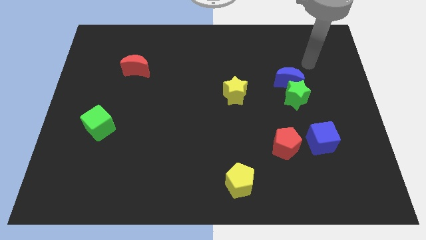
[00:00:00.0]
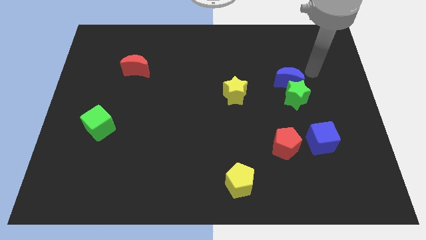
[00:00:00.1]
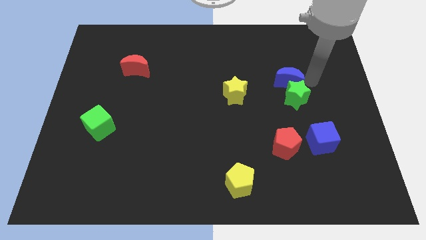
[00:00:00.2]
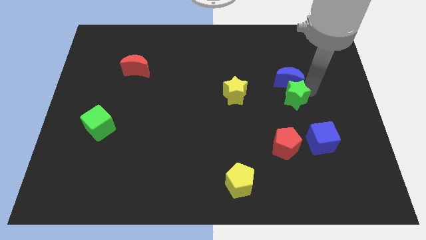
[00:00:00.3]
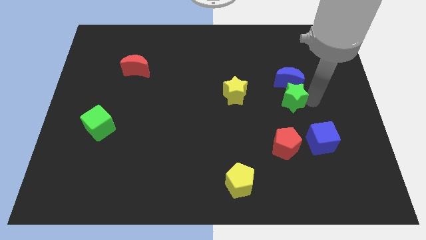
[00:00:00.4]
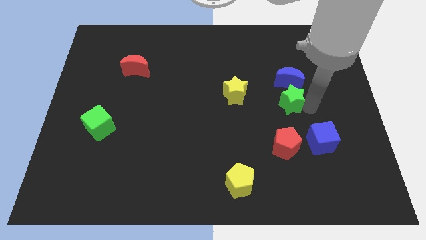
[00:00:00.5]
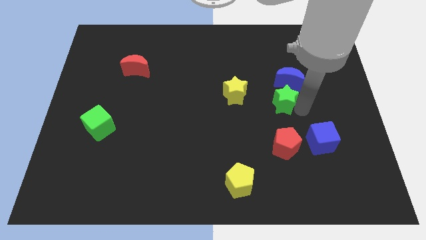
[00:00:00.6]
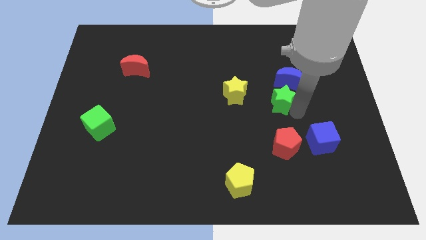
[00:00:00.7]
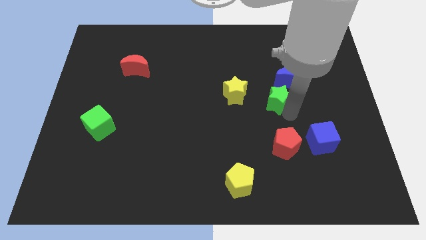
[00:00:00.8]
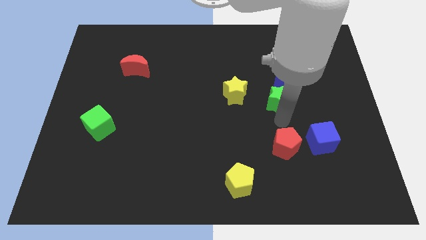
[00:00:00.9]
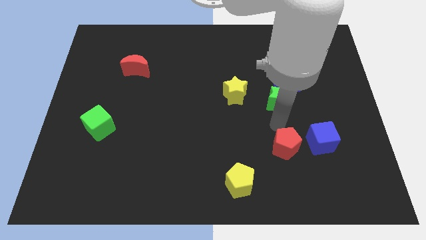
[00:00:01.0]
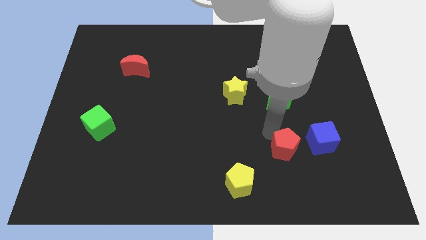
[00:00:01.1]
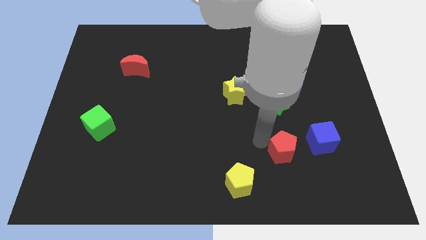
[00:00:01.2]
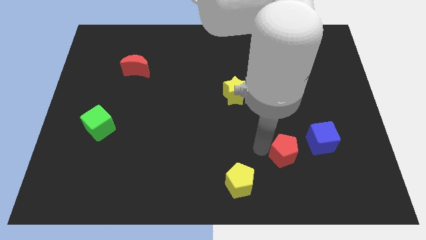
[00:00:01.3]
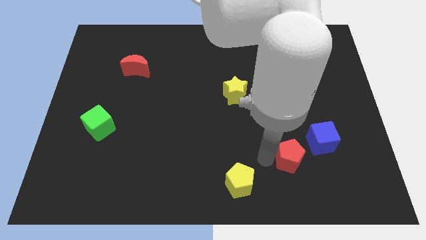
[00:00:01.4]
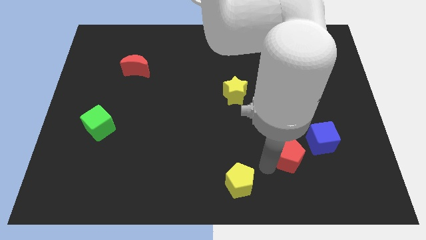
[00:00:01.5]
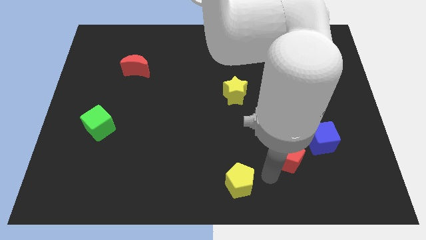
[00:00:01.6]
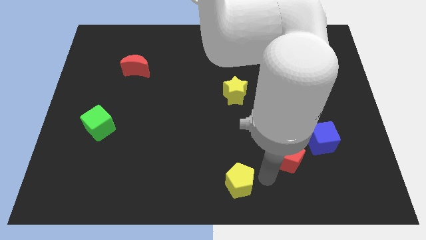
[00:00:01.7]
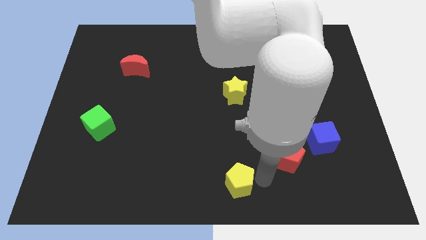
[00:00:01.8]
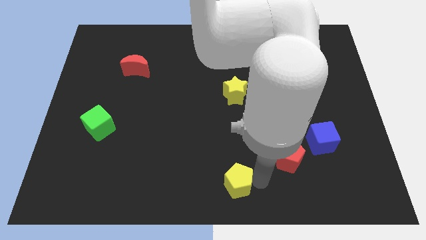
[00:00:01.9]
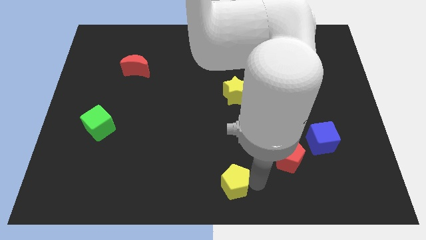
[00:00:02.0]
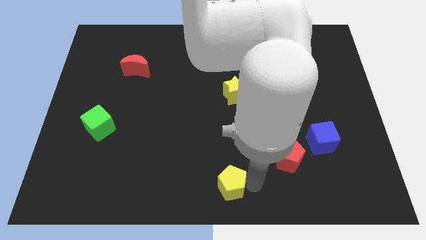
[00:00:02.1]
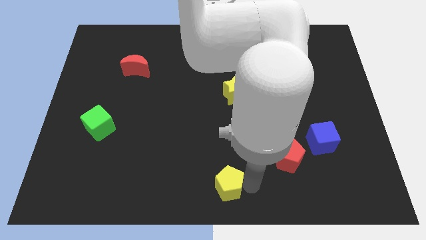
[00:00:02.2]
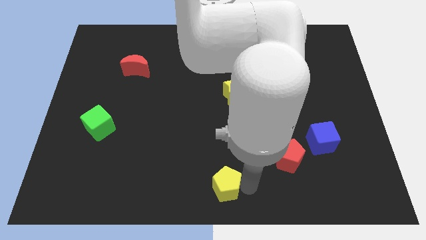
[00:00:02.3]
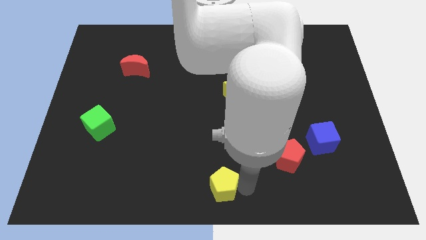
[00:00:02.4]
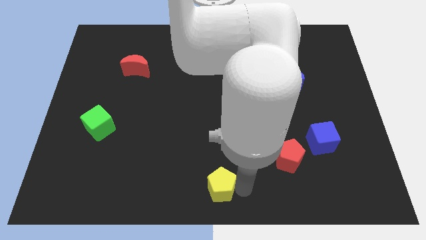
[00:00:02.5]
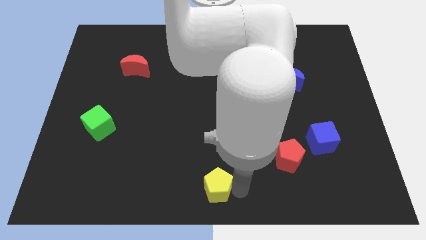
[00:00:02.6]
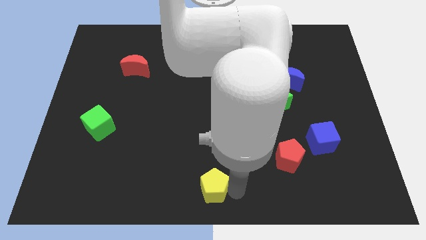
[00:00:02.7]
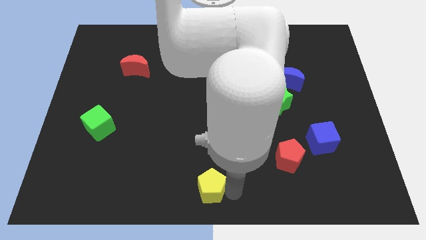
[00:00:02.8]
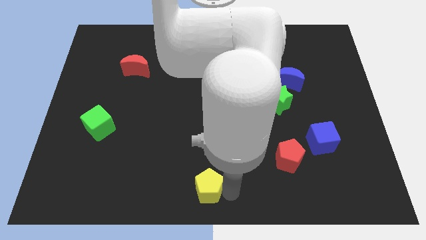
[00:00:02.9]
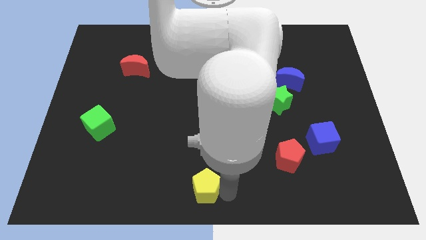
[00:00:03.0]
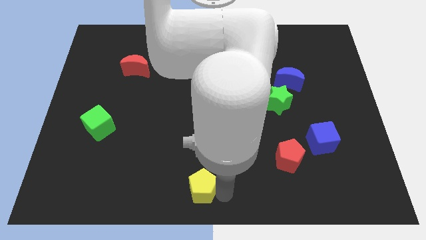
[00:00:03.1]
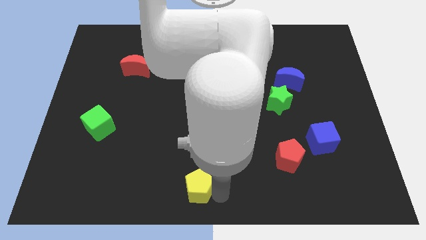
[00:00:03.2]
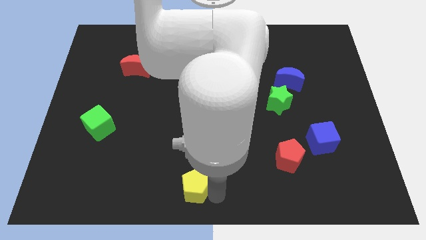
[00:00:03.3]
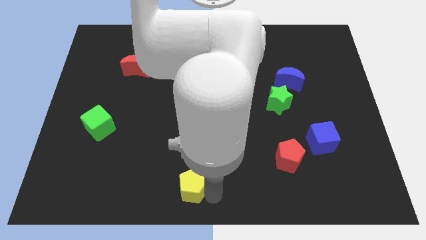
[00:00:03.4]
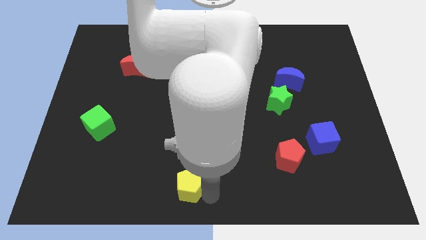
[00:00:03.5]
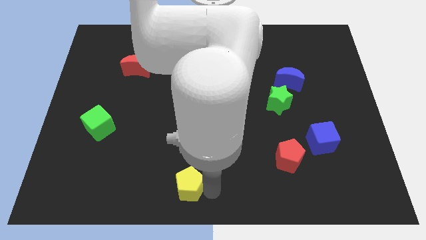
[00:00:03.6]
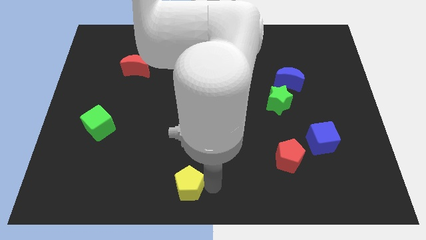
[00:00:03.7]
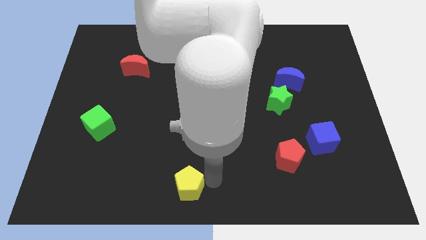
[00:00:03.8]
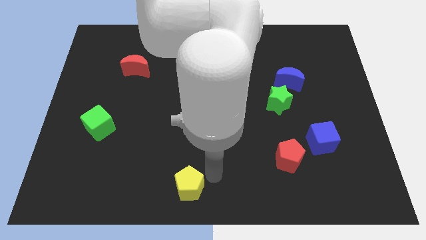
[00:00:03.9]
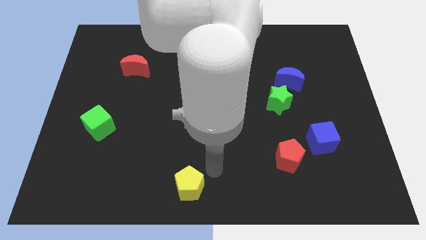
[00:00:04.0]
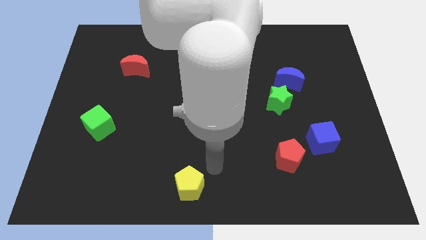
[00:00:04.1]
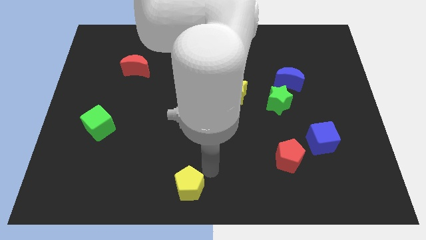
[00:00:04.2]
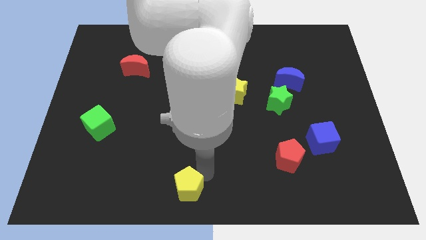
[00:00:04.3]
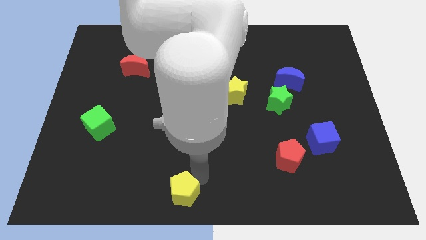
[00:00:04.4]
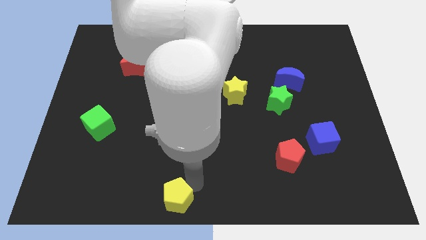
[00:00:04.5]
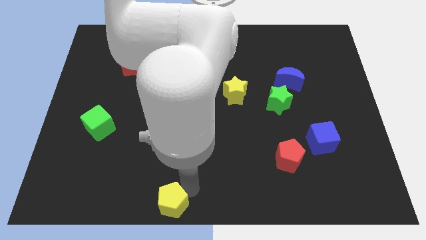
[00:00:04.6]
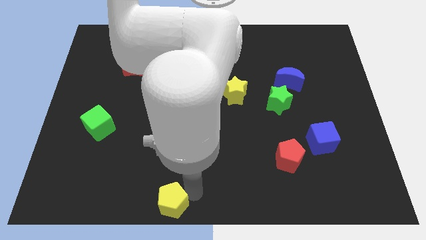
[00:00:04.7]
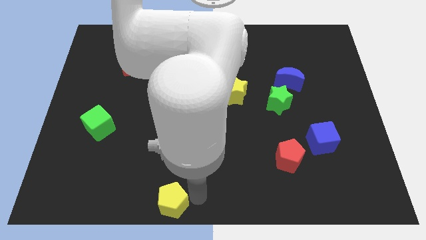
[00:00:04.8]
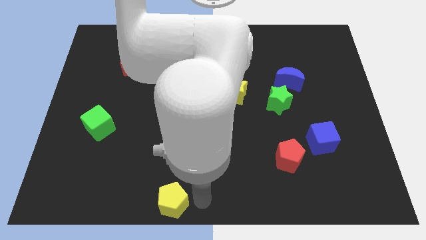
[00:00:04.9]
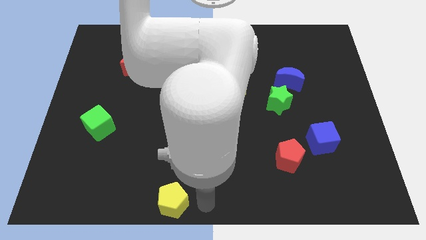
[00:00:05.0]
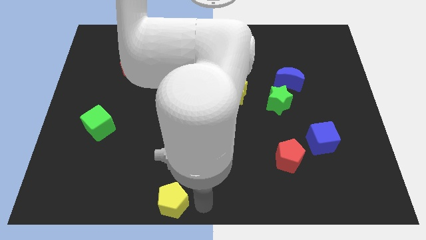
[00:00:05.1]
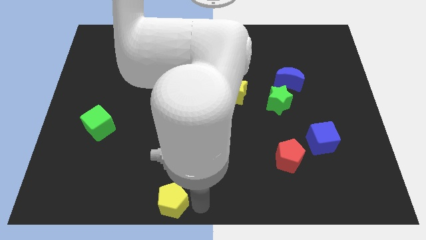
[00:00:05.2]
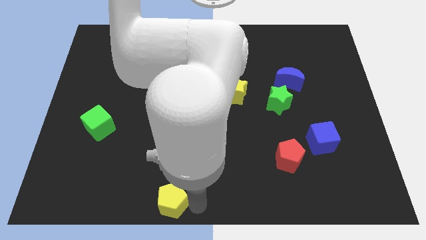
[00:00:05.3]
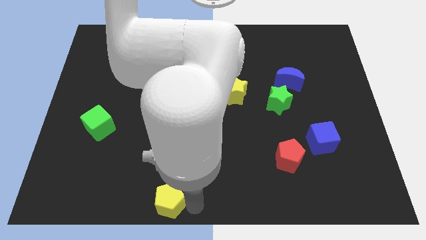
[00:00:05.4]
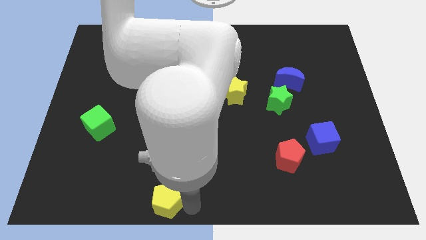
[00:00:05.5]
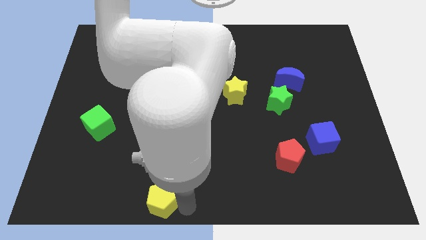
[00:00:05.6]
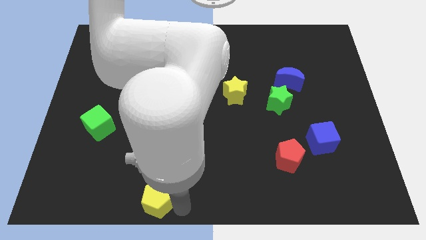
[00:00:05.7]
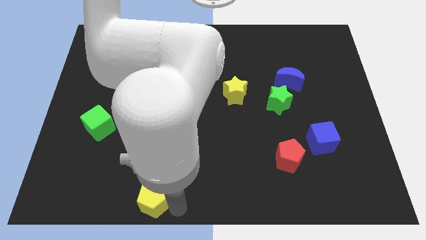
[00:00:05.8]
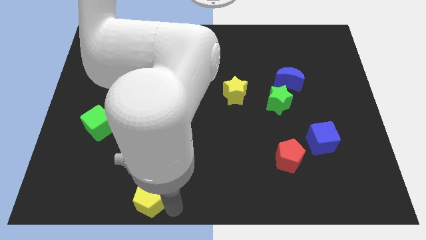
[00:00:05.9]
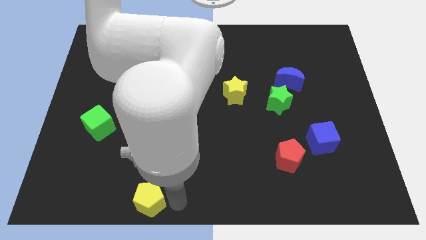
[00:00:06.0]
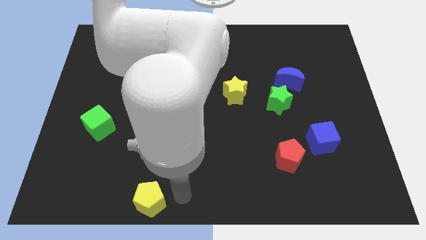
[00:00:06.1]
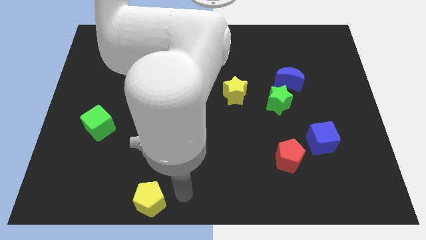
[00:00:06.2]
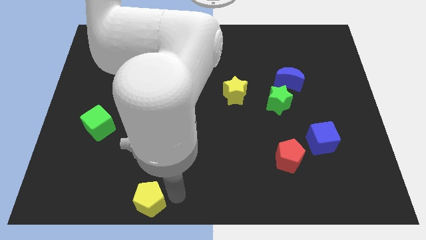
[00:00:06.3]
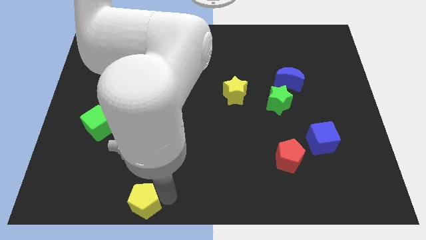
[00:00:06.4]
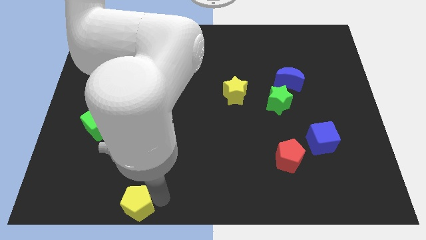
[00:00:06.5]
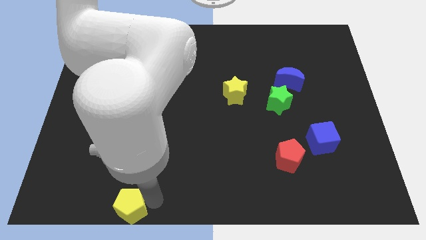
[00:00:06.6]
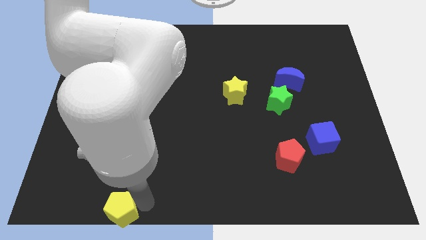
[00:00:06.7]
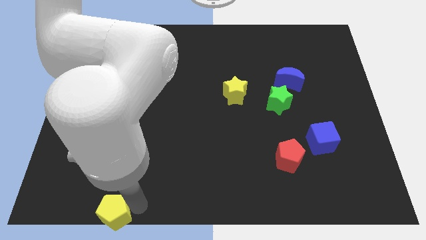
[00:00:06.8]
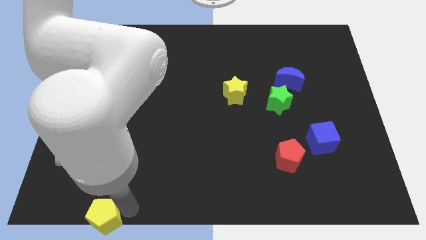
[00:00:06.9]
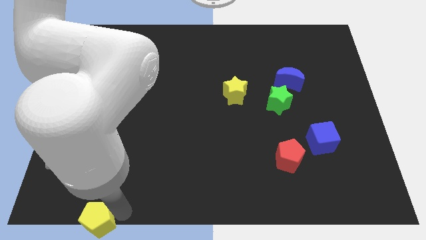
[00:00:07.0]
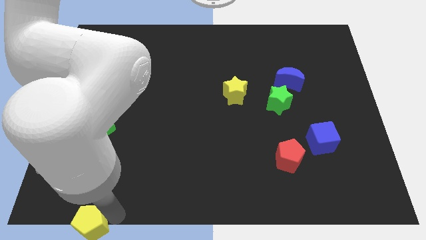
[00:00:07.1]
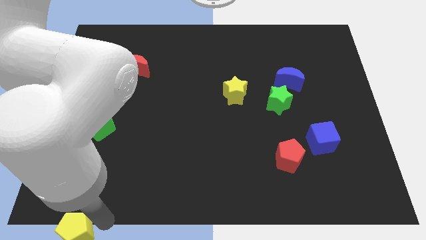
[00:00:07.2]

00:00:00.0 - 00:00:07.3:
move the yellow pentagon to the bottom left
